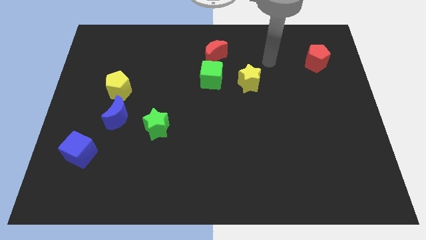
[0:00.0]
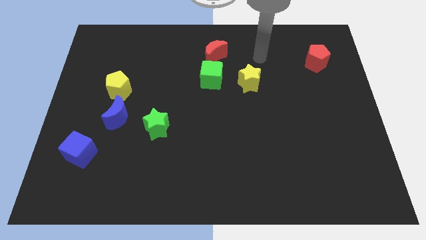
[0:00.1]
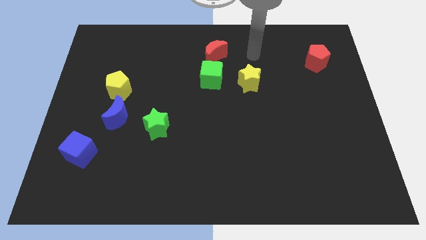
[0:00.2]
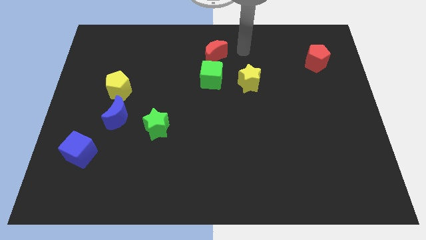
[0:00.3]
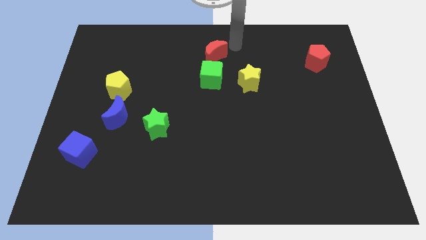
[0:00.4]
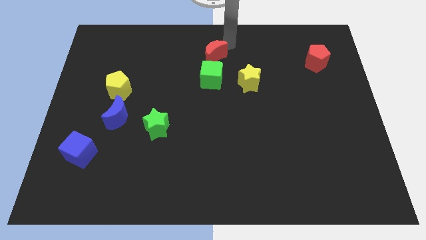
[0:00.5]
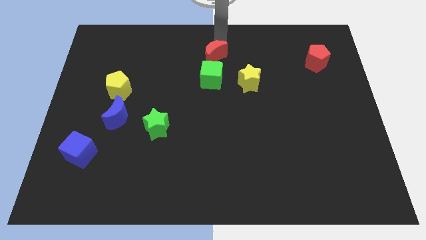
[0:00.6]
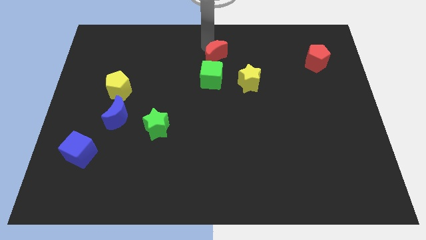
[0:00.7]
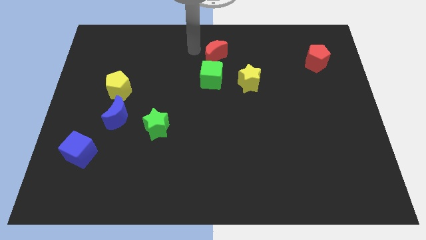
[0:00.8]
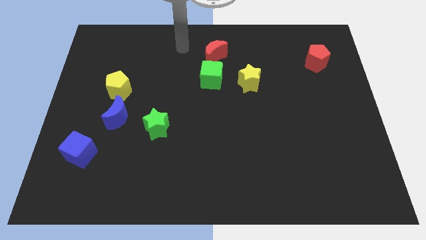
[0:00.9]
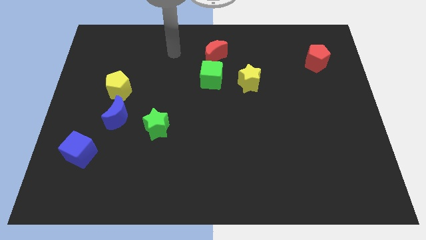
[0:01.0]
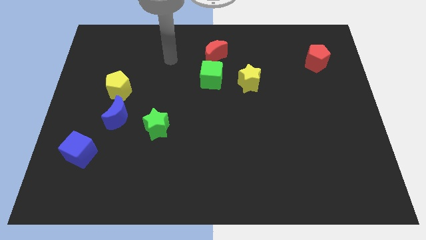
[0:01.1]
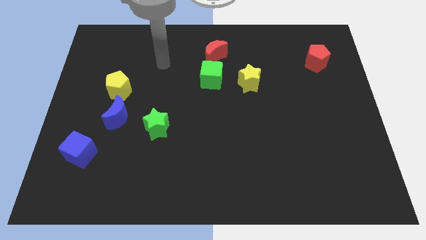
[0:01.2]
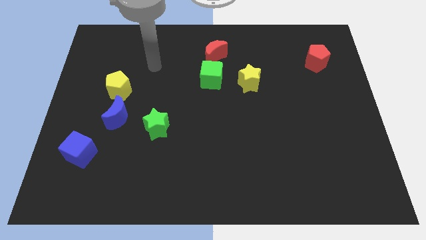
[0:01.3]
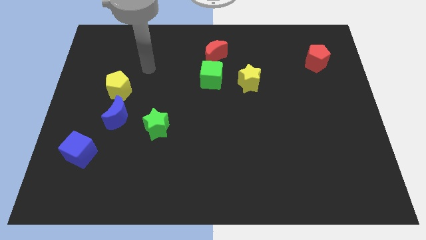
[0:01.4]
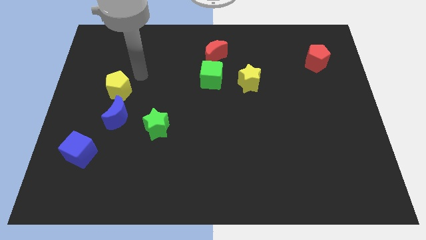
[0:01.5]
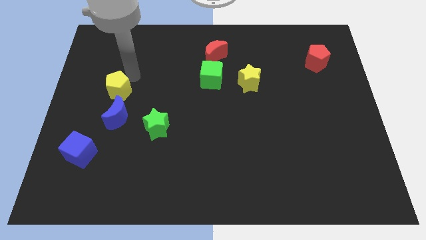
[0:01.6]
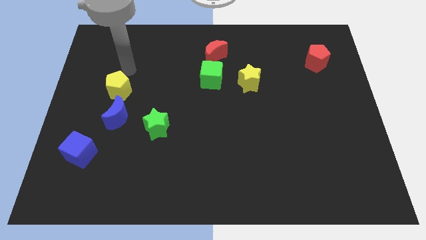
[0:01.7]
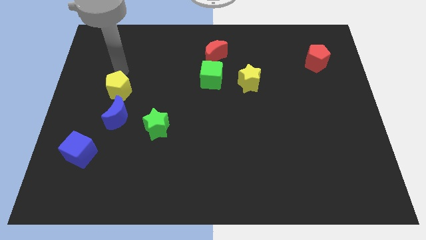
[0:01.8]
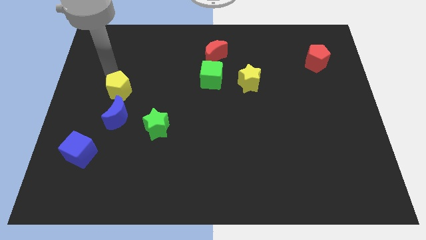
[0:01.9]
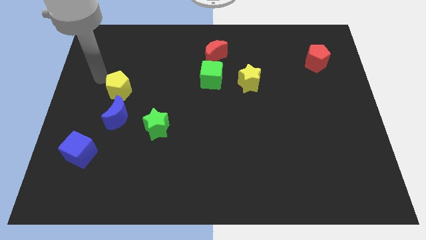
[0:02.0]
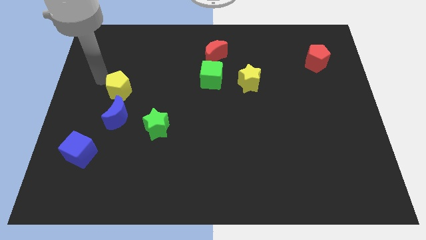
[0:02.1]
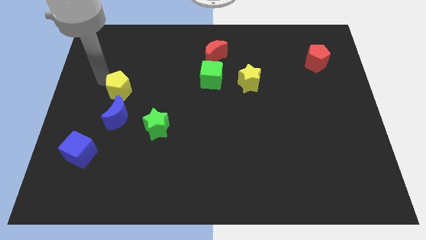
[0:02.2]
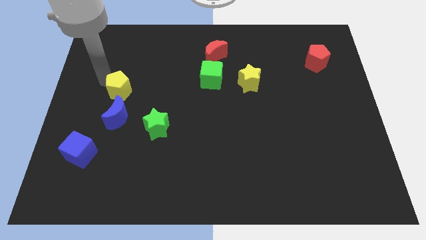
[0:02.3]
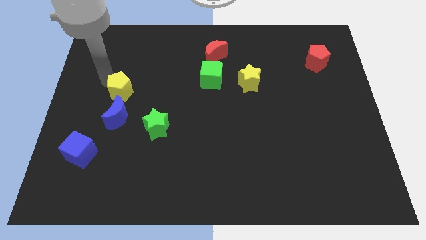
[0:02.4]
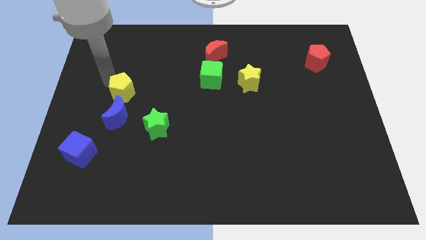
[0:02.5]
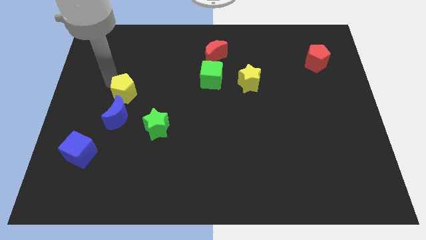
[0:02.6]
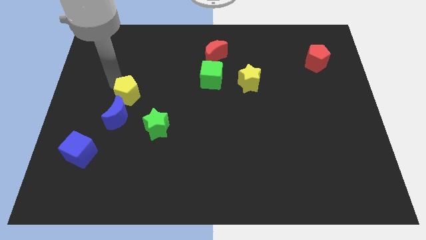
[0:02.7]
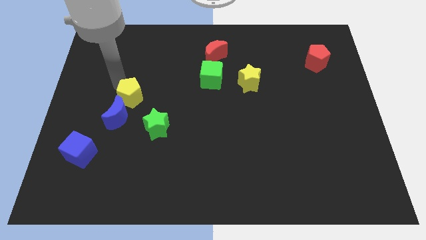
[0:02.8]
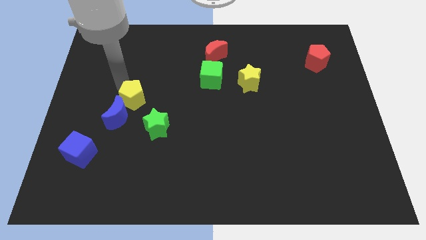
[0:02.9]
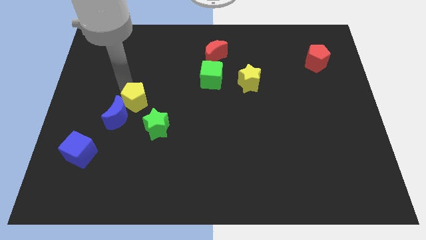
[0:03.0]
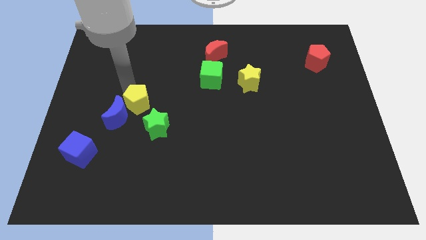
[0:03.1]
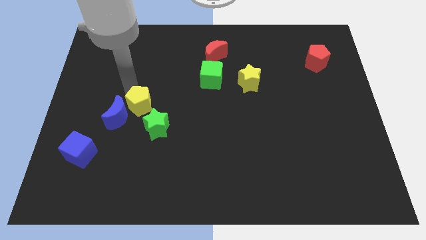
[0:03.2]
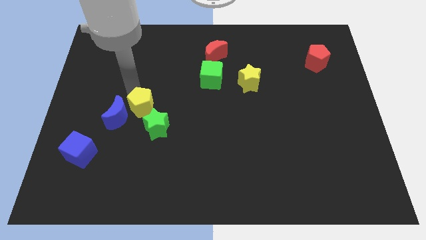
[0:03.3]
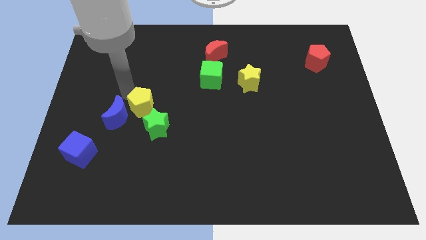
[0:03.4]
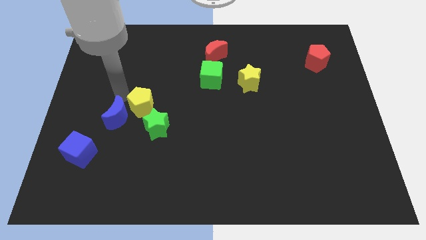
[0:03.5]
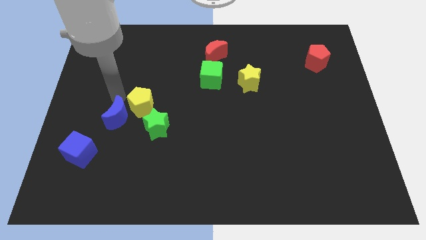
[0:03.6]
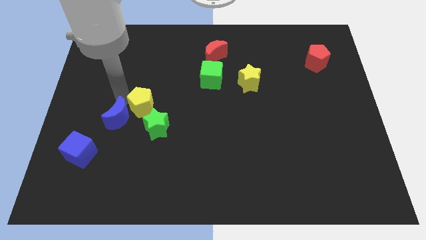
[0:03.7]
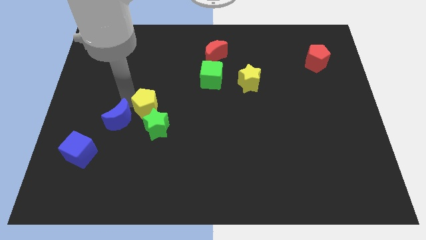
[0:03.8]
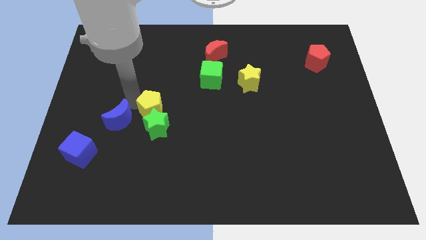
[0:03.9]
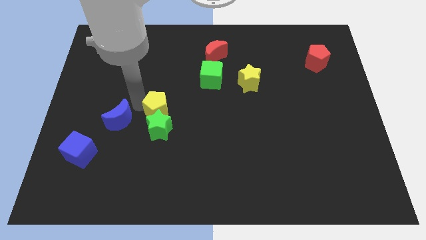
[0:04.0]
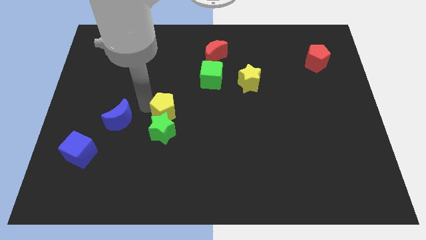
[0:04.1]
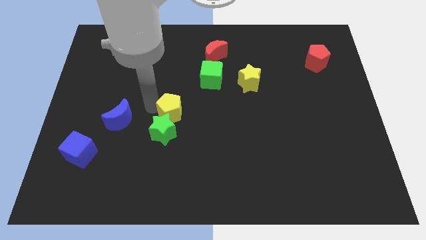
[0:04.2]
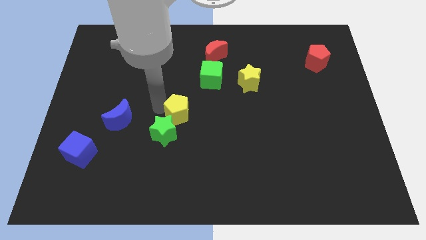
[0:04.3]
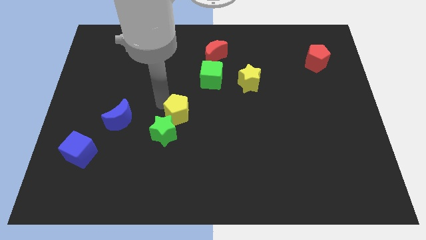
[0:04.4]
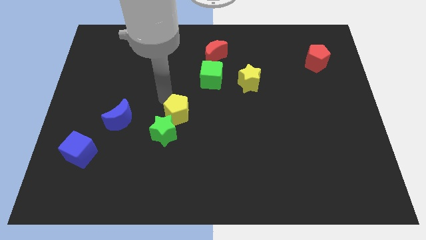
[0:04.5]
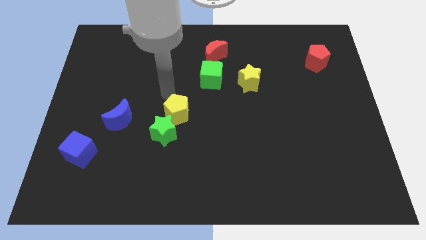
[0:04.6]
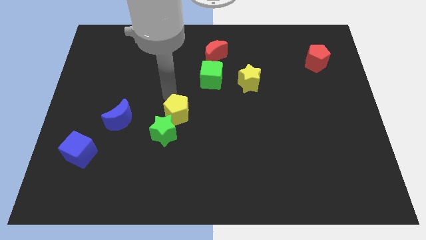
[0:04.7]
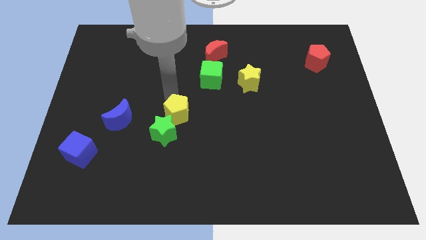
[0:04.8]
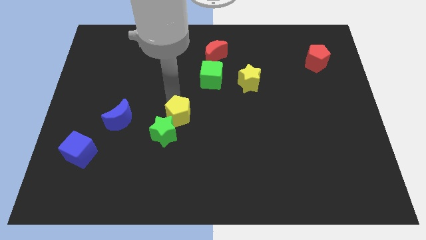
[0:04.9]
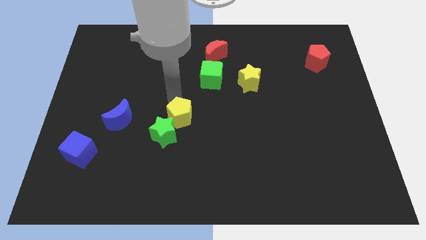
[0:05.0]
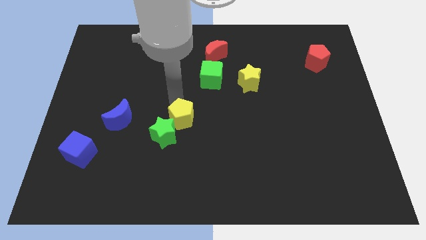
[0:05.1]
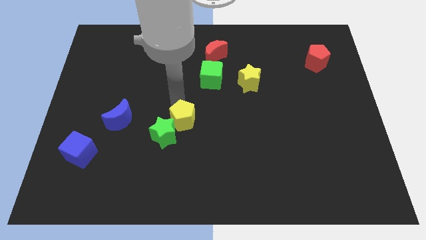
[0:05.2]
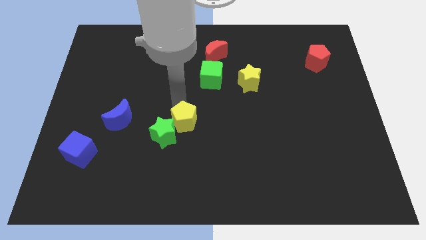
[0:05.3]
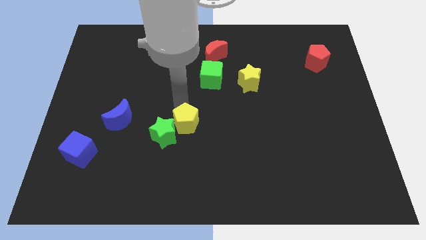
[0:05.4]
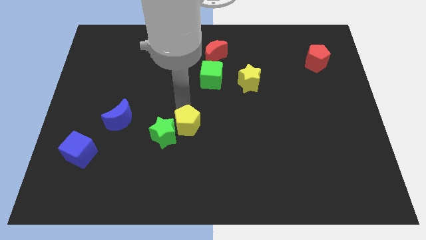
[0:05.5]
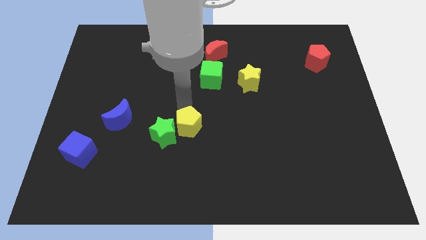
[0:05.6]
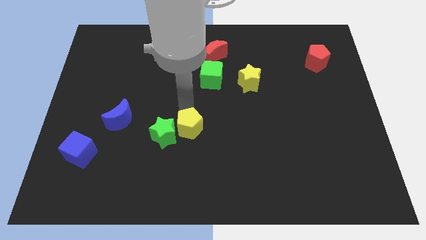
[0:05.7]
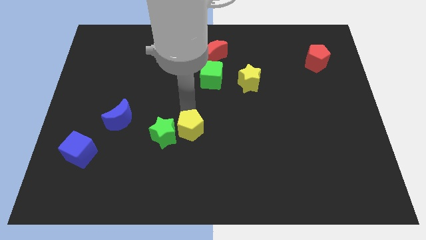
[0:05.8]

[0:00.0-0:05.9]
slide the yellow pentagon downwards and right diagonally

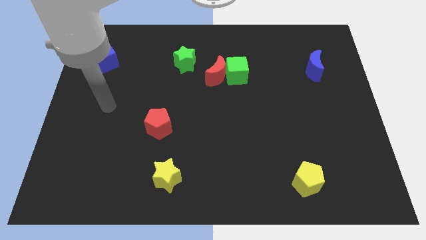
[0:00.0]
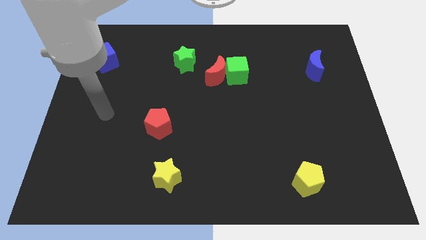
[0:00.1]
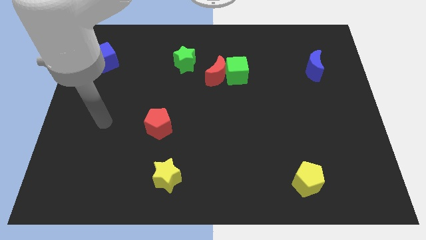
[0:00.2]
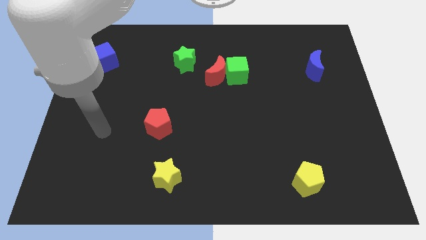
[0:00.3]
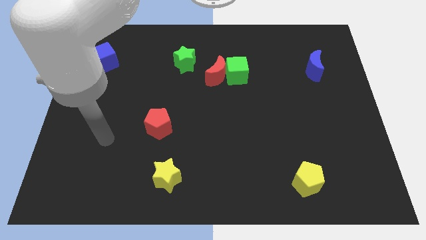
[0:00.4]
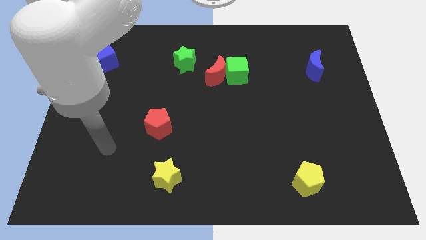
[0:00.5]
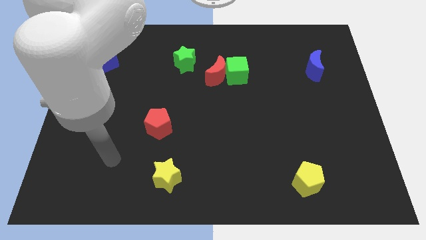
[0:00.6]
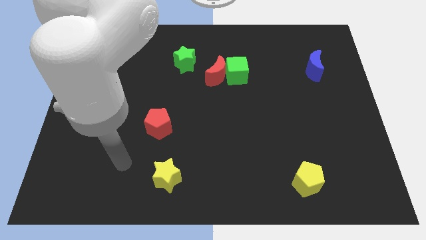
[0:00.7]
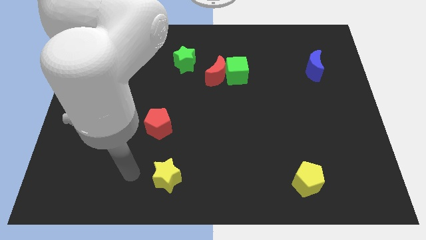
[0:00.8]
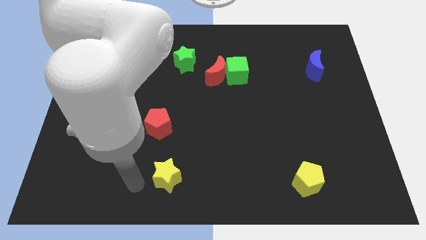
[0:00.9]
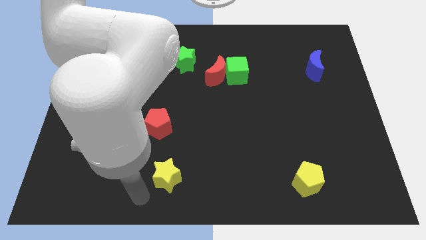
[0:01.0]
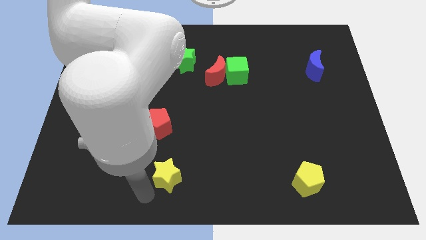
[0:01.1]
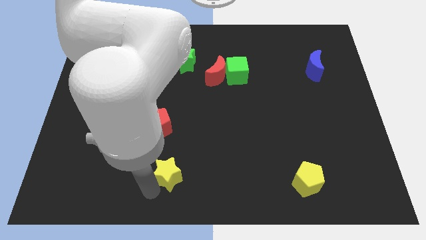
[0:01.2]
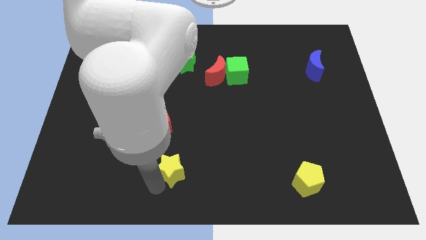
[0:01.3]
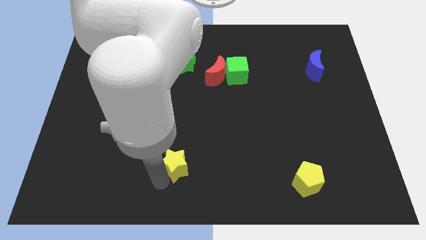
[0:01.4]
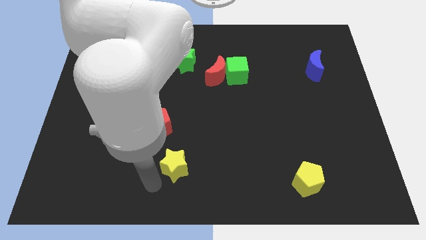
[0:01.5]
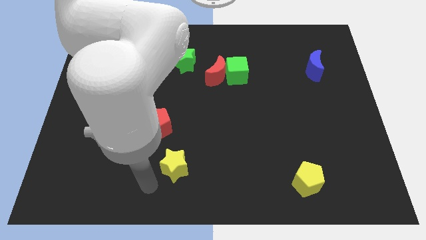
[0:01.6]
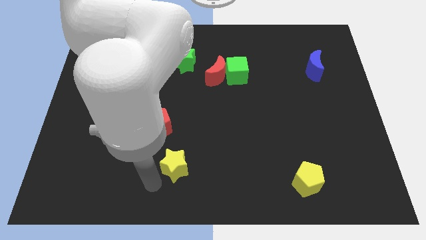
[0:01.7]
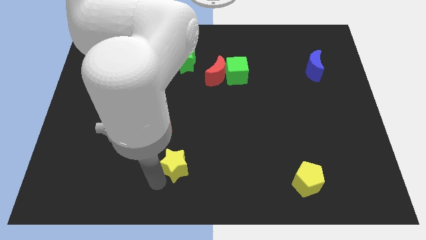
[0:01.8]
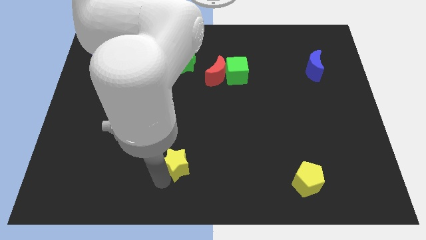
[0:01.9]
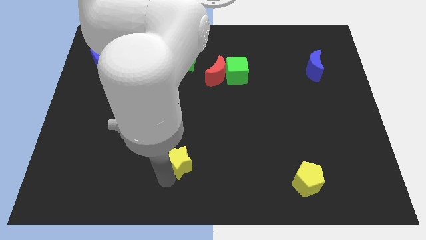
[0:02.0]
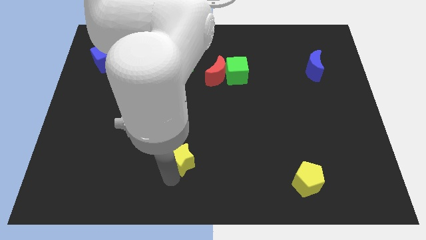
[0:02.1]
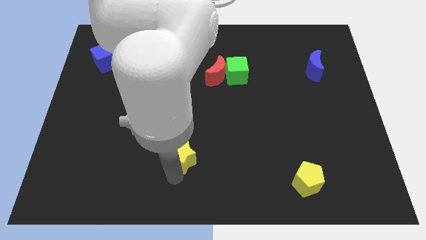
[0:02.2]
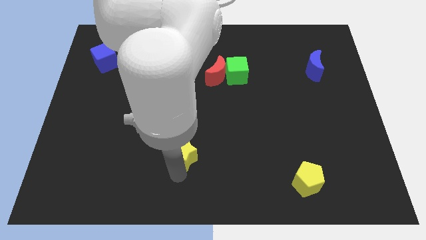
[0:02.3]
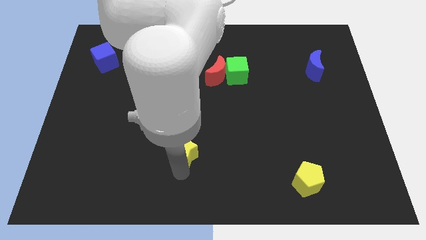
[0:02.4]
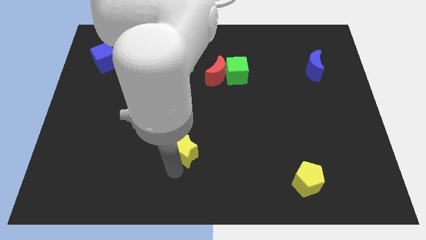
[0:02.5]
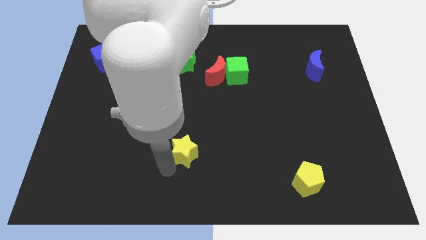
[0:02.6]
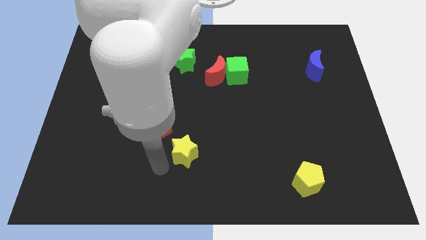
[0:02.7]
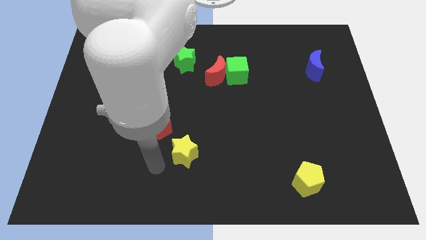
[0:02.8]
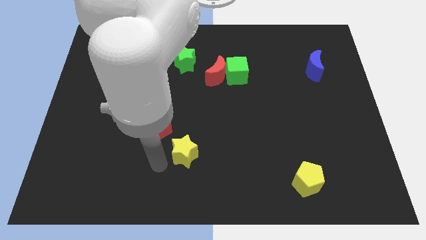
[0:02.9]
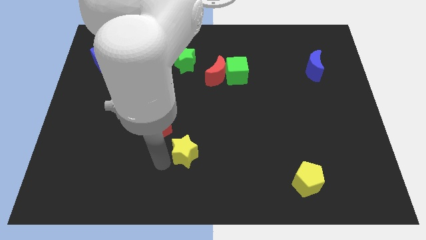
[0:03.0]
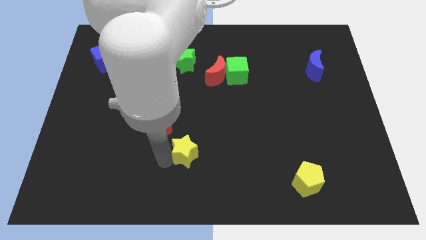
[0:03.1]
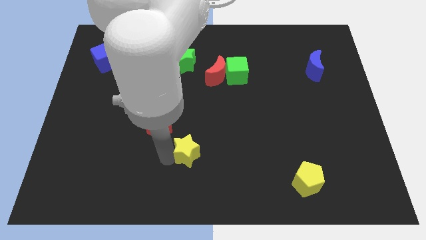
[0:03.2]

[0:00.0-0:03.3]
slide the yellow star upwards and to the right diagonally a bit
